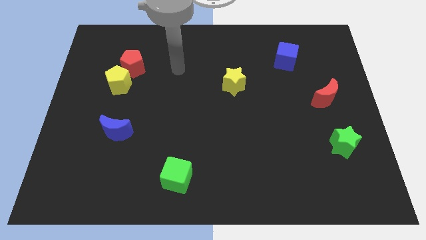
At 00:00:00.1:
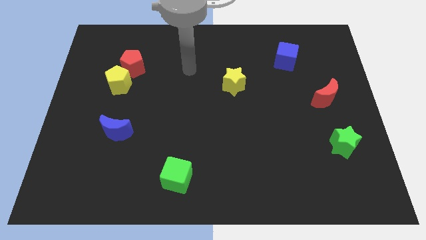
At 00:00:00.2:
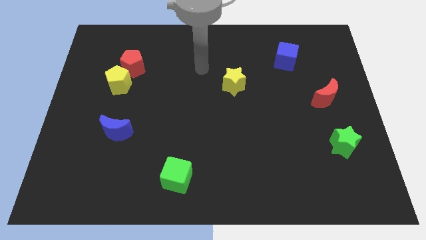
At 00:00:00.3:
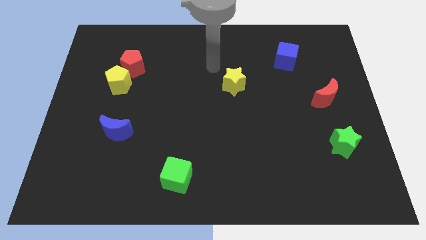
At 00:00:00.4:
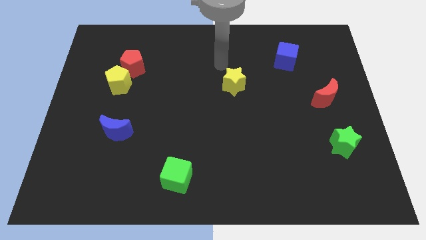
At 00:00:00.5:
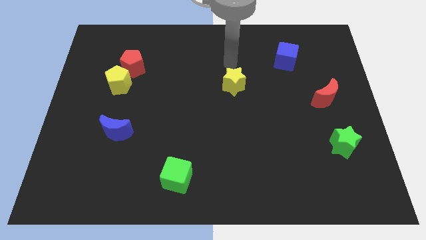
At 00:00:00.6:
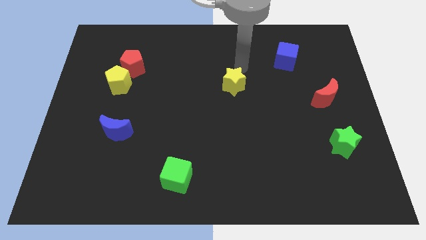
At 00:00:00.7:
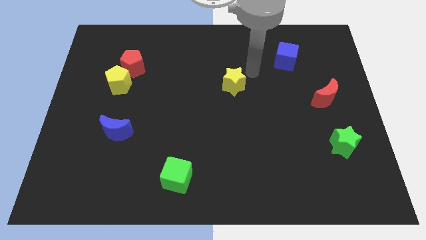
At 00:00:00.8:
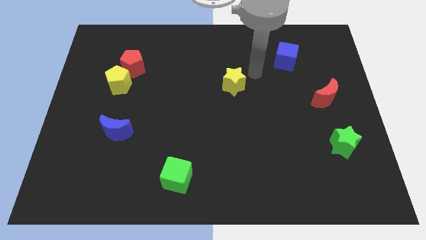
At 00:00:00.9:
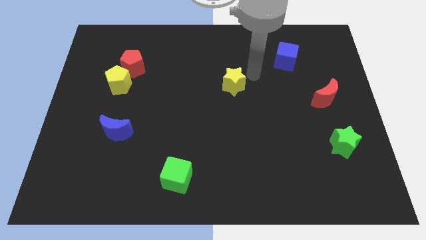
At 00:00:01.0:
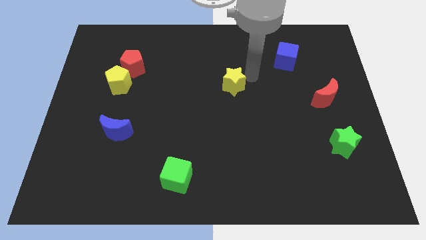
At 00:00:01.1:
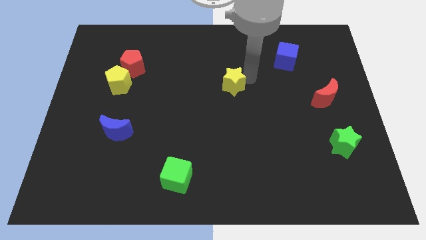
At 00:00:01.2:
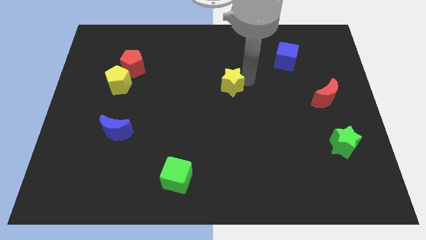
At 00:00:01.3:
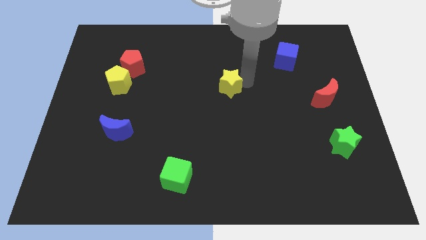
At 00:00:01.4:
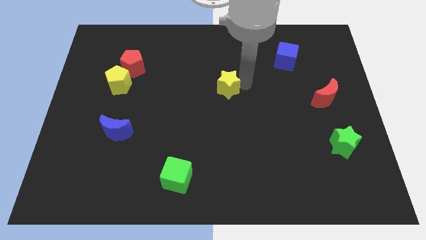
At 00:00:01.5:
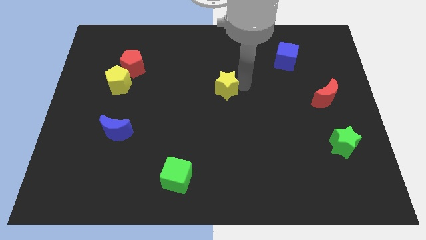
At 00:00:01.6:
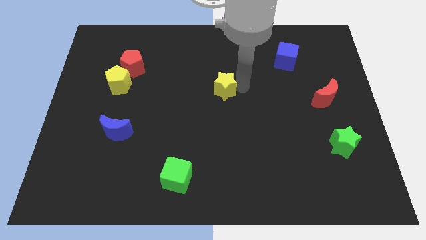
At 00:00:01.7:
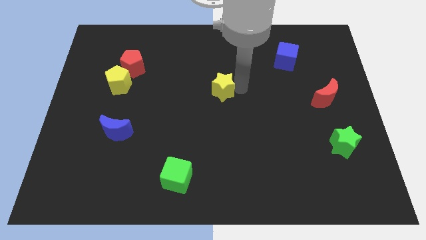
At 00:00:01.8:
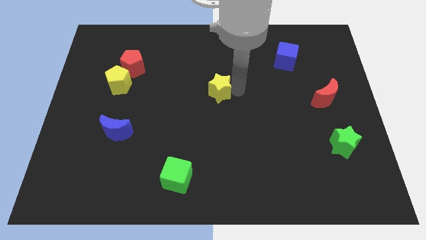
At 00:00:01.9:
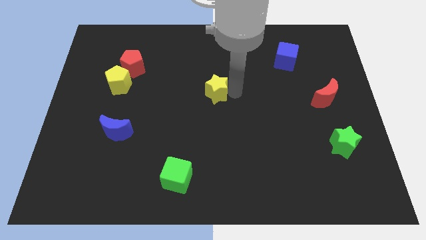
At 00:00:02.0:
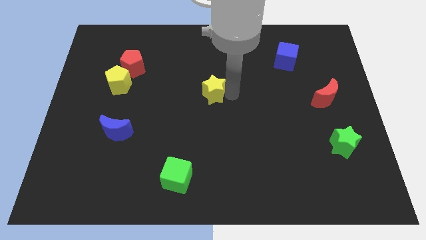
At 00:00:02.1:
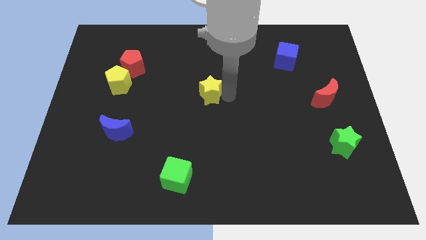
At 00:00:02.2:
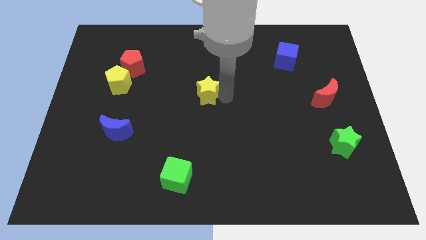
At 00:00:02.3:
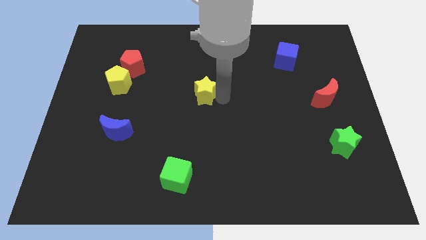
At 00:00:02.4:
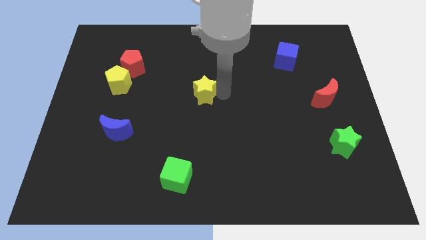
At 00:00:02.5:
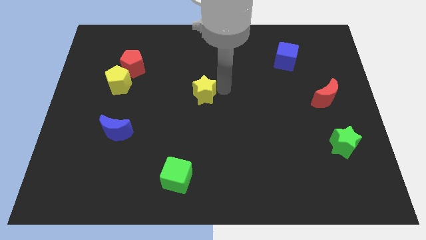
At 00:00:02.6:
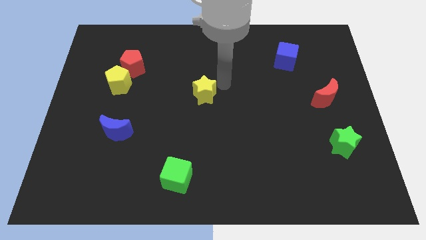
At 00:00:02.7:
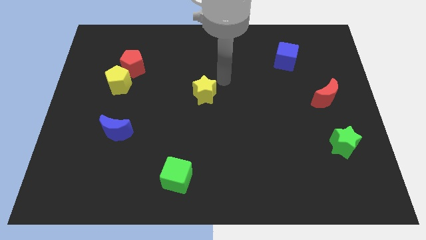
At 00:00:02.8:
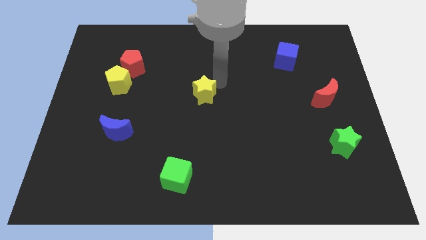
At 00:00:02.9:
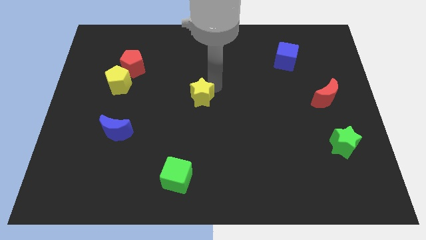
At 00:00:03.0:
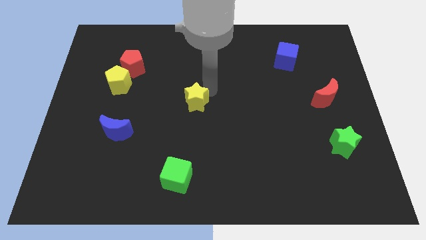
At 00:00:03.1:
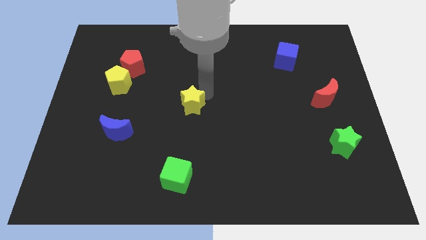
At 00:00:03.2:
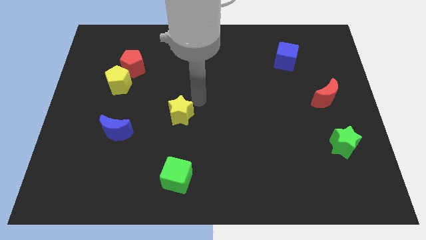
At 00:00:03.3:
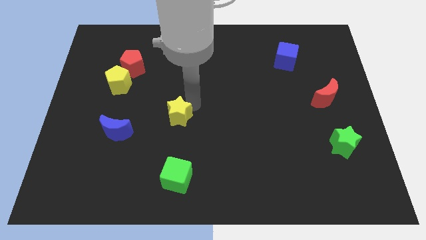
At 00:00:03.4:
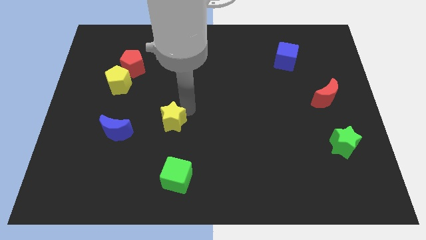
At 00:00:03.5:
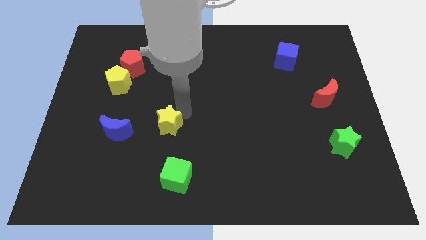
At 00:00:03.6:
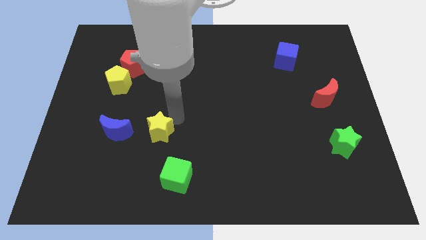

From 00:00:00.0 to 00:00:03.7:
push the yellow star downwards and left

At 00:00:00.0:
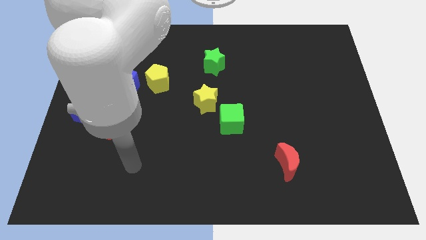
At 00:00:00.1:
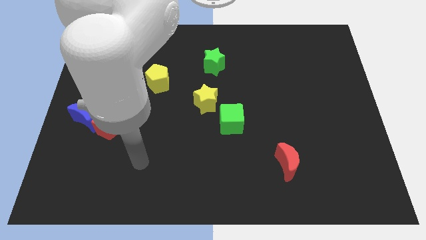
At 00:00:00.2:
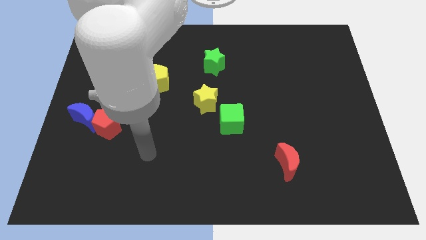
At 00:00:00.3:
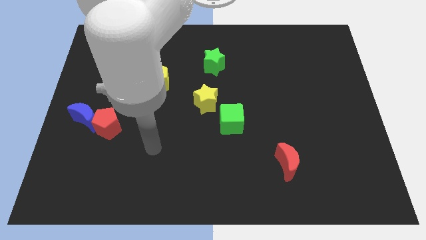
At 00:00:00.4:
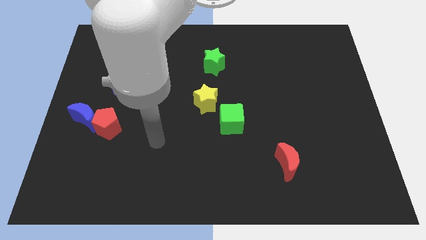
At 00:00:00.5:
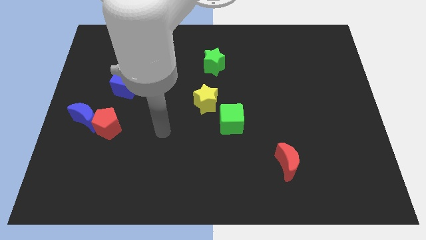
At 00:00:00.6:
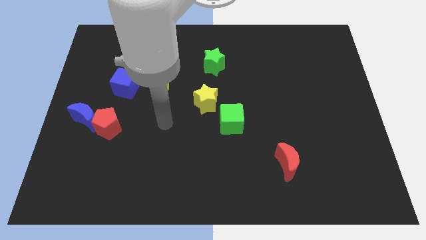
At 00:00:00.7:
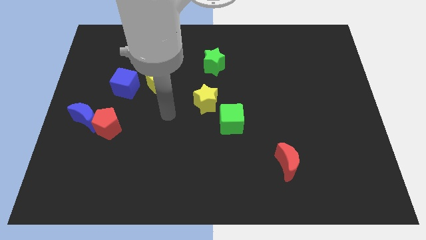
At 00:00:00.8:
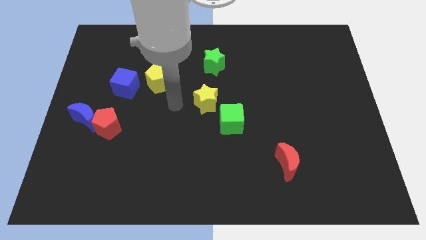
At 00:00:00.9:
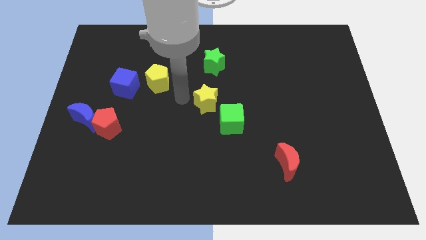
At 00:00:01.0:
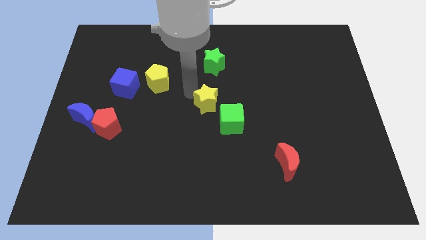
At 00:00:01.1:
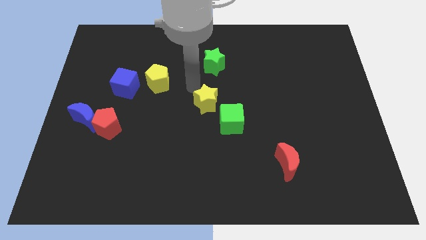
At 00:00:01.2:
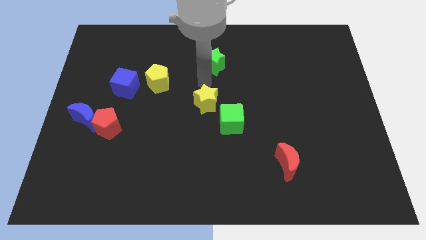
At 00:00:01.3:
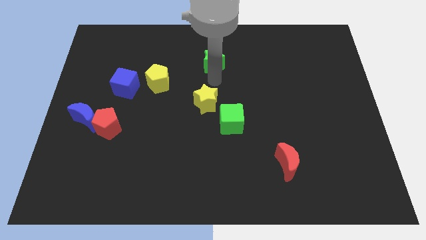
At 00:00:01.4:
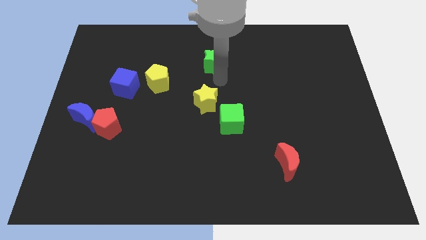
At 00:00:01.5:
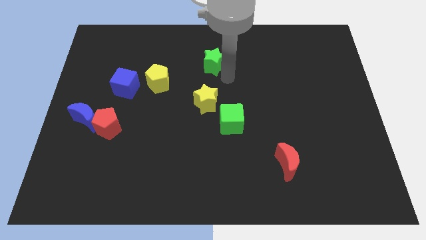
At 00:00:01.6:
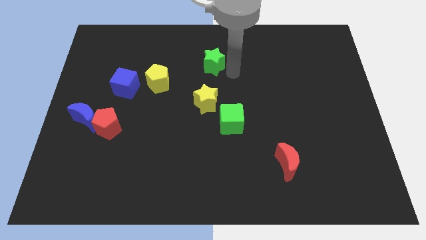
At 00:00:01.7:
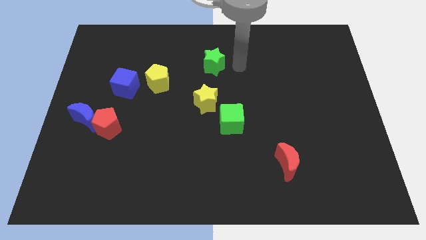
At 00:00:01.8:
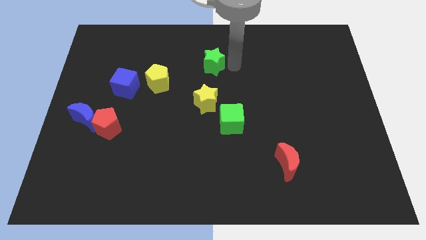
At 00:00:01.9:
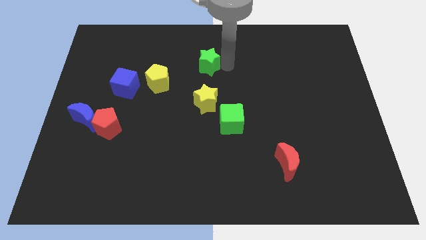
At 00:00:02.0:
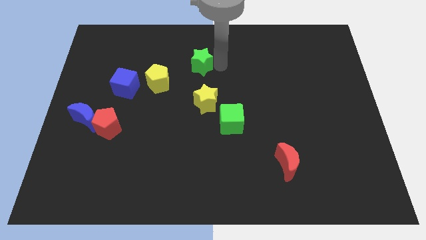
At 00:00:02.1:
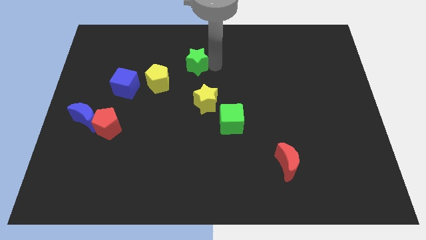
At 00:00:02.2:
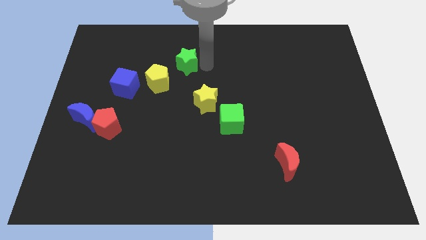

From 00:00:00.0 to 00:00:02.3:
slightly slide the green star left

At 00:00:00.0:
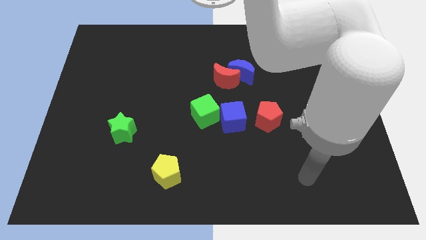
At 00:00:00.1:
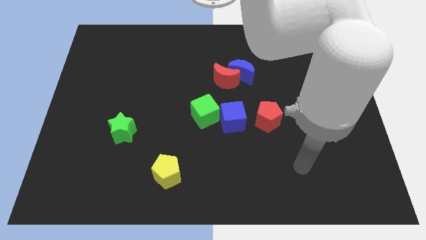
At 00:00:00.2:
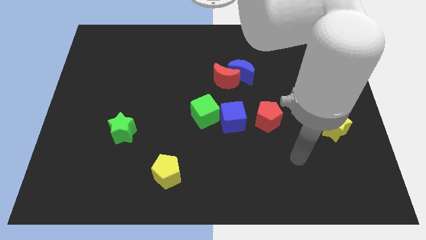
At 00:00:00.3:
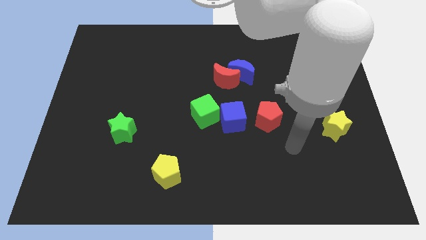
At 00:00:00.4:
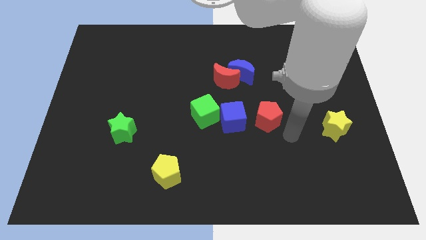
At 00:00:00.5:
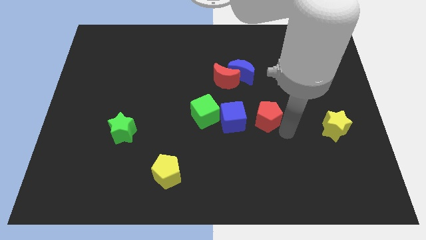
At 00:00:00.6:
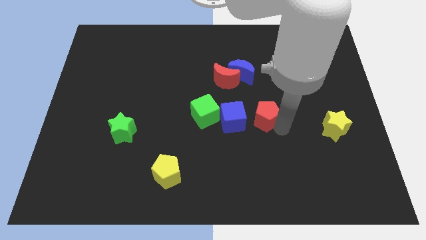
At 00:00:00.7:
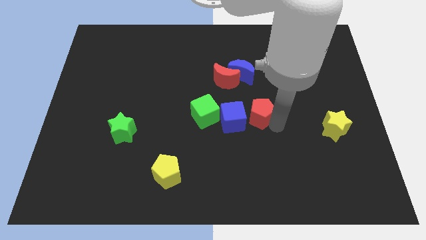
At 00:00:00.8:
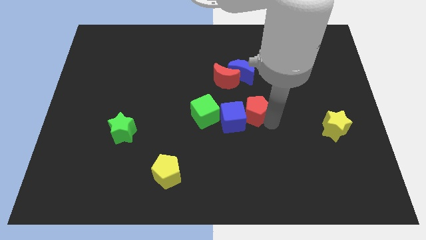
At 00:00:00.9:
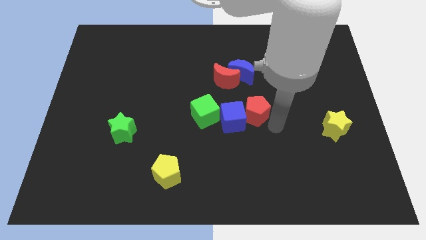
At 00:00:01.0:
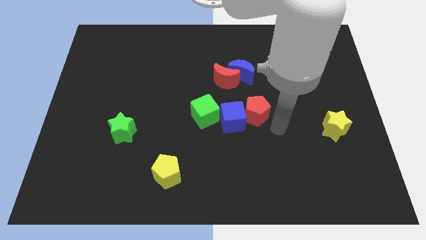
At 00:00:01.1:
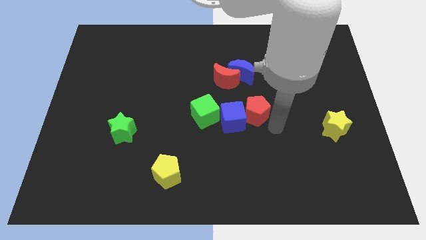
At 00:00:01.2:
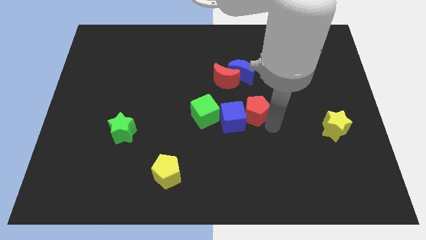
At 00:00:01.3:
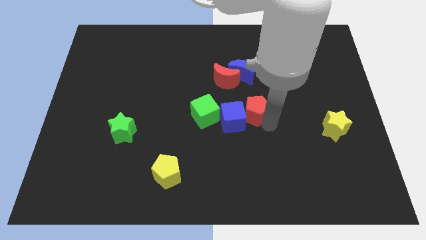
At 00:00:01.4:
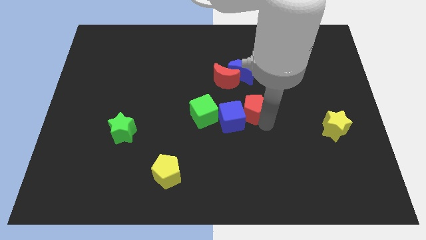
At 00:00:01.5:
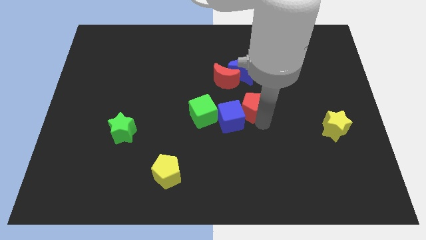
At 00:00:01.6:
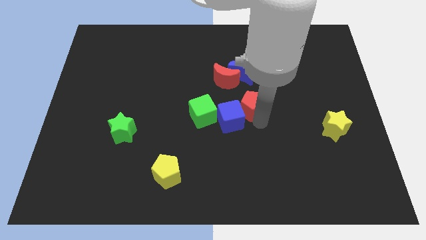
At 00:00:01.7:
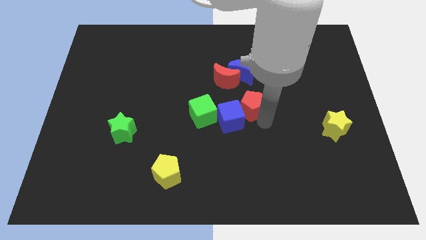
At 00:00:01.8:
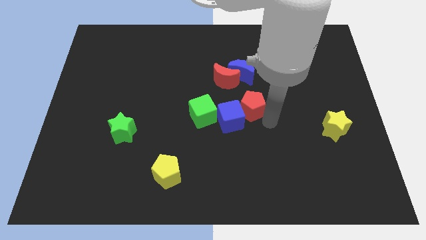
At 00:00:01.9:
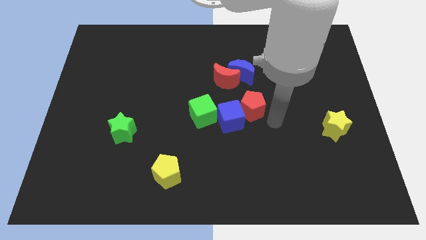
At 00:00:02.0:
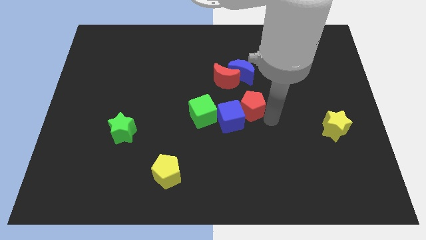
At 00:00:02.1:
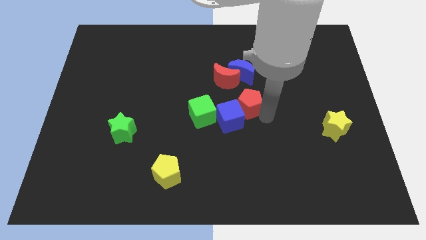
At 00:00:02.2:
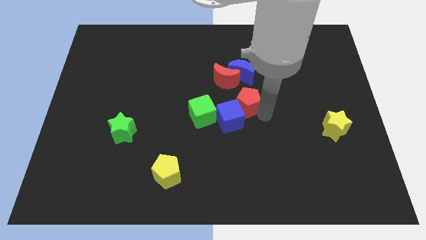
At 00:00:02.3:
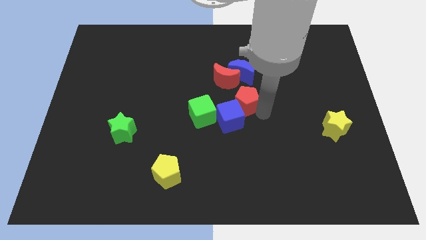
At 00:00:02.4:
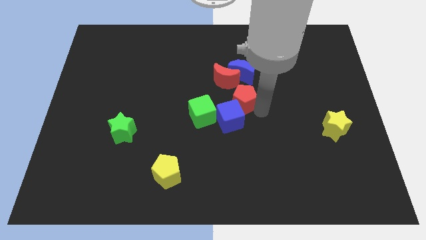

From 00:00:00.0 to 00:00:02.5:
move the red pentagon up and left a bit
